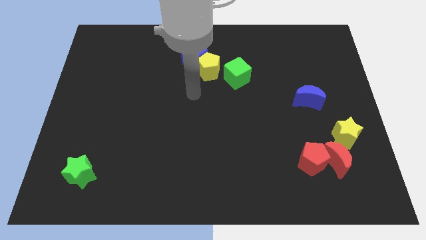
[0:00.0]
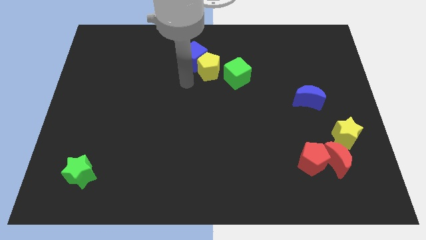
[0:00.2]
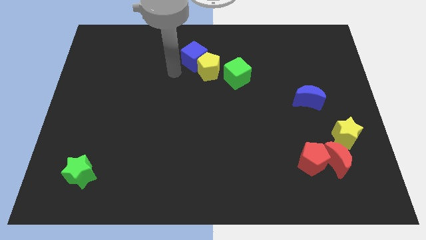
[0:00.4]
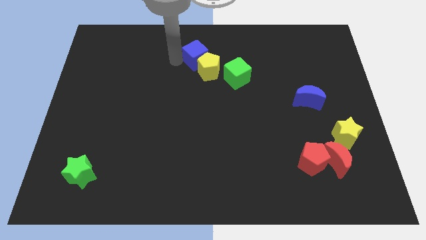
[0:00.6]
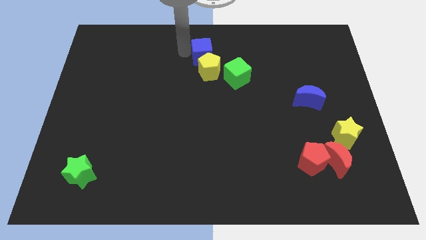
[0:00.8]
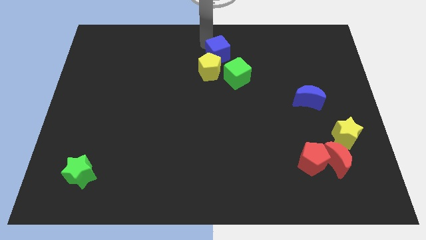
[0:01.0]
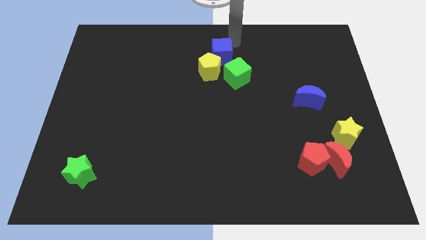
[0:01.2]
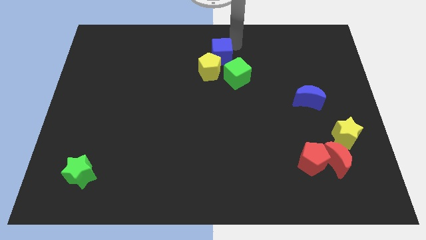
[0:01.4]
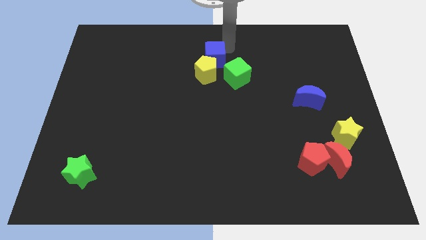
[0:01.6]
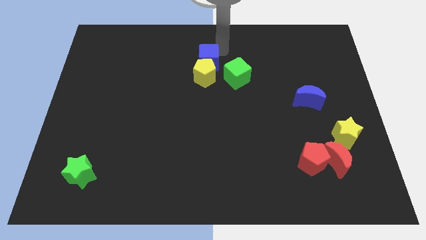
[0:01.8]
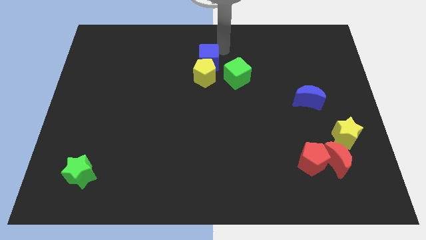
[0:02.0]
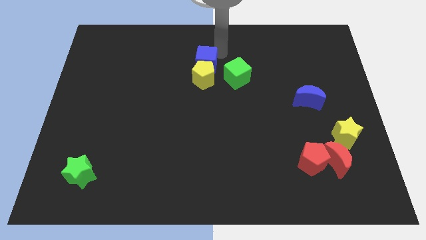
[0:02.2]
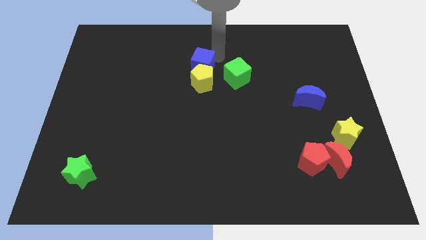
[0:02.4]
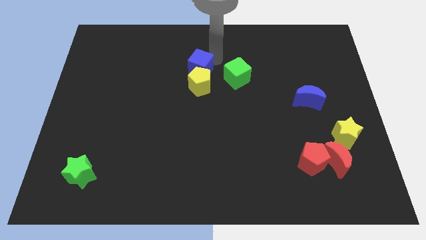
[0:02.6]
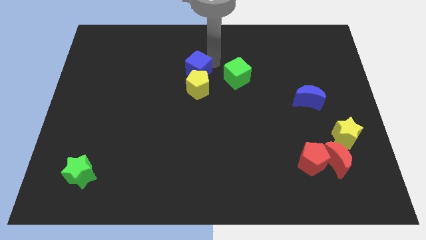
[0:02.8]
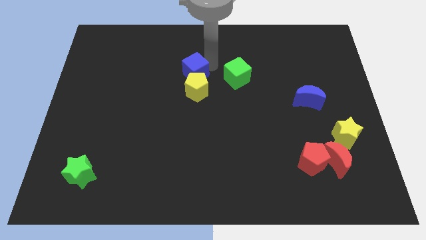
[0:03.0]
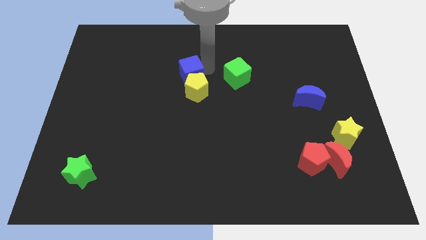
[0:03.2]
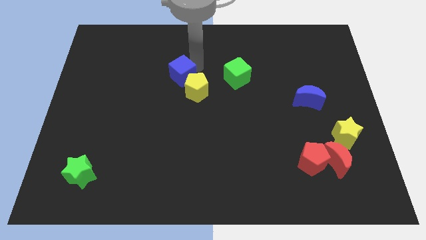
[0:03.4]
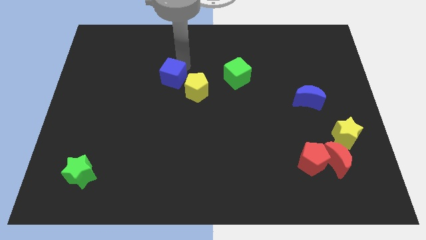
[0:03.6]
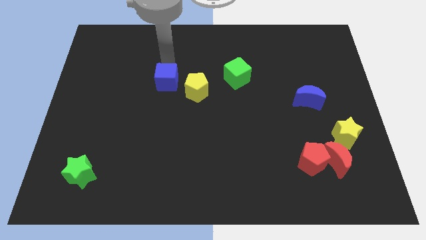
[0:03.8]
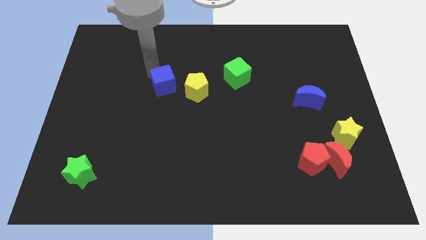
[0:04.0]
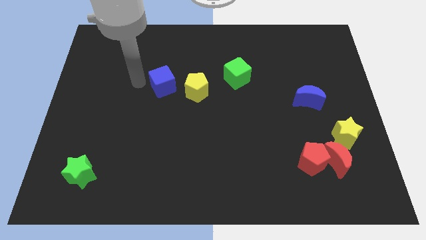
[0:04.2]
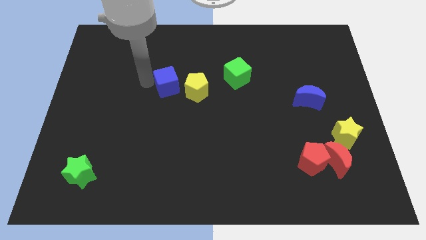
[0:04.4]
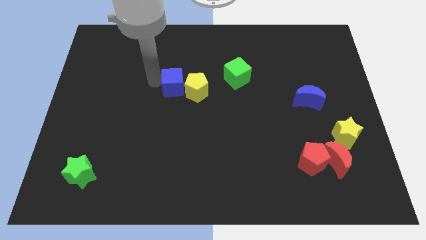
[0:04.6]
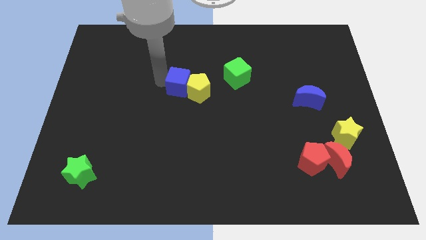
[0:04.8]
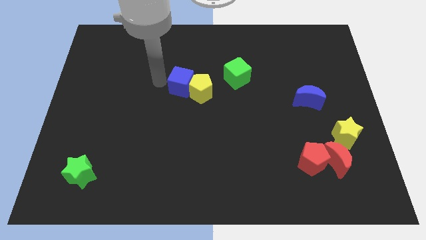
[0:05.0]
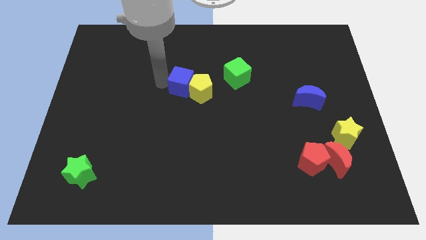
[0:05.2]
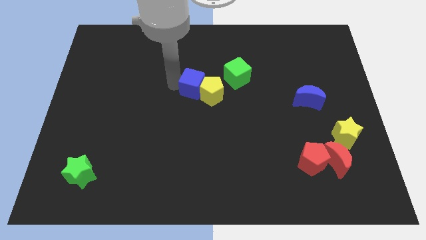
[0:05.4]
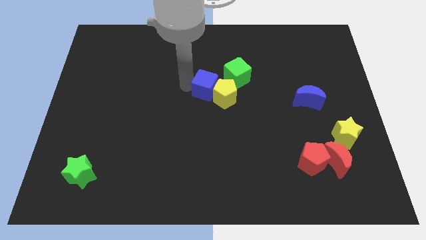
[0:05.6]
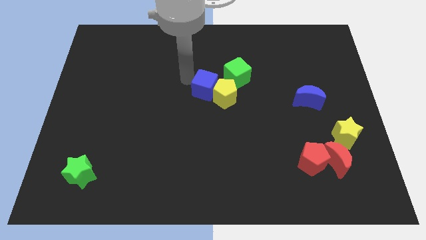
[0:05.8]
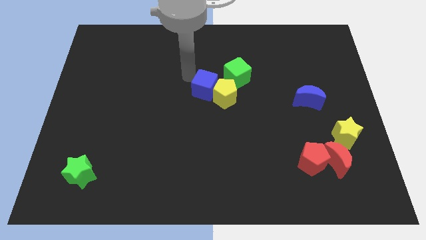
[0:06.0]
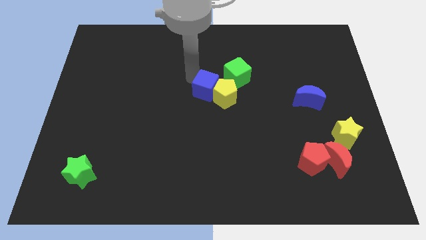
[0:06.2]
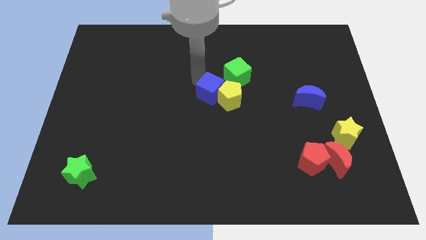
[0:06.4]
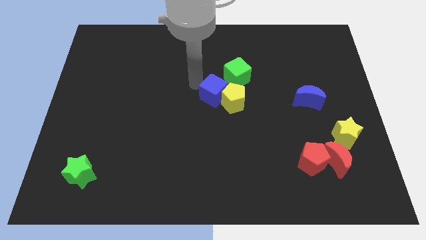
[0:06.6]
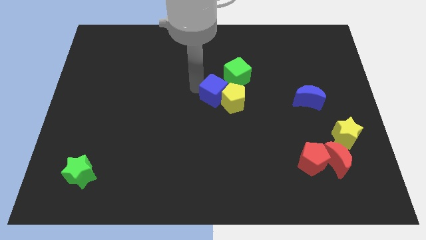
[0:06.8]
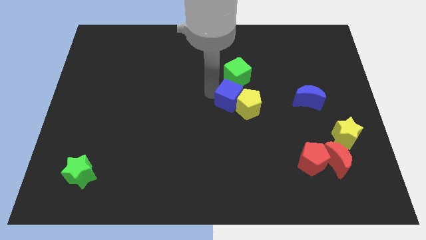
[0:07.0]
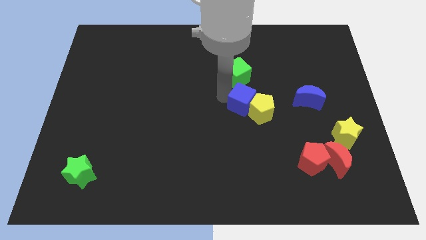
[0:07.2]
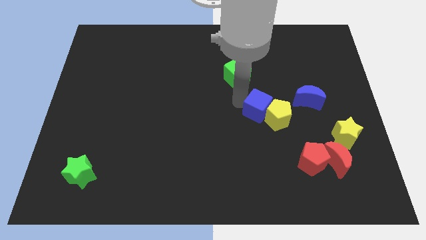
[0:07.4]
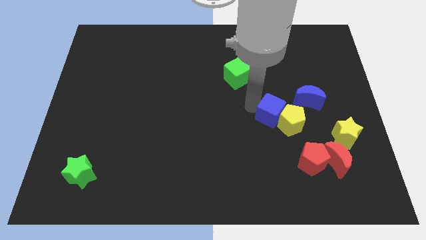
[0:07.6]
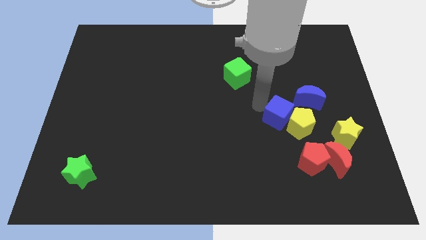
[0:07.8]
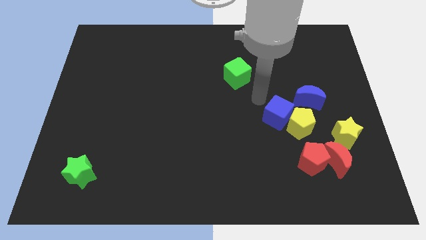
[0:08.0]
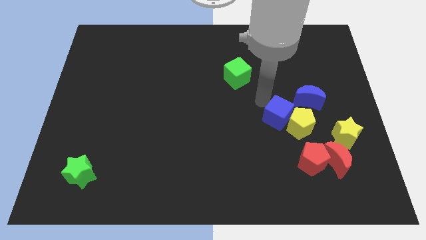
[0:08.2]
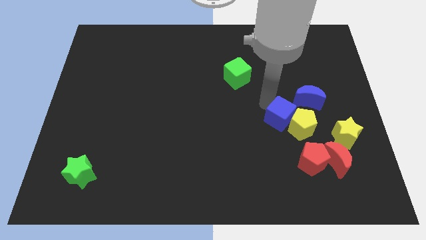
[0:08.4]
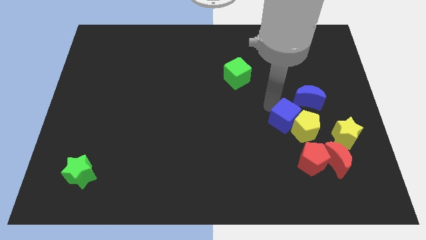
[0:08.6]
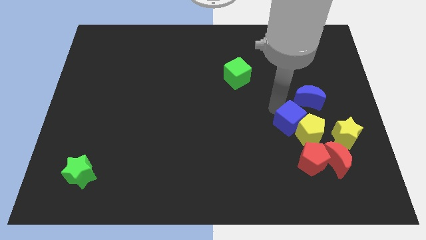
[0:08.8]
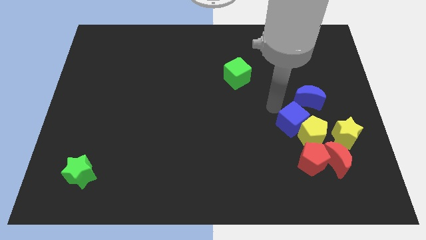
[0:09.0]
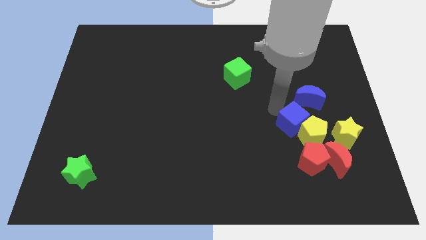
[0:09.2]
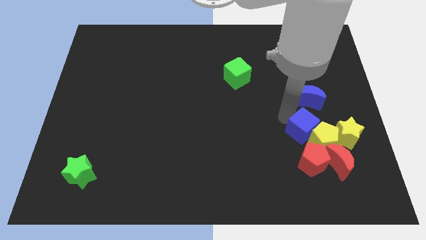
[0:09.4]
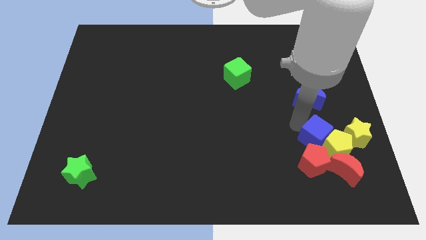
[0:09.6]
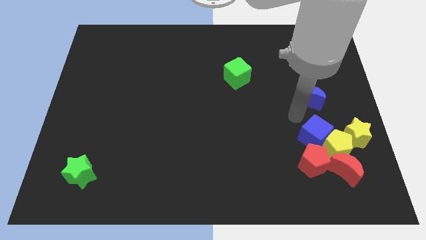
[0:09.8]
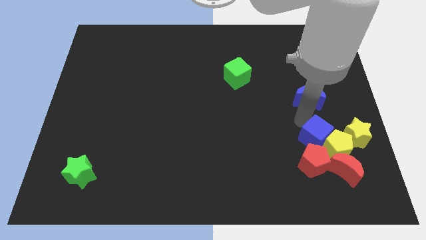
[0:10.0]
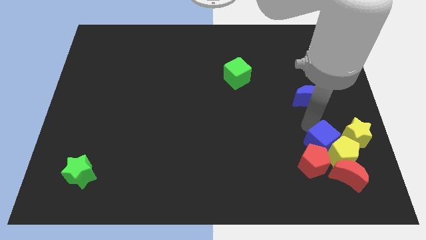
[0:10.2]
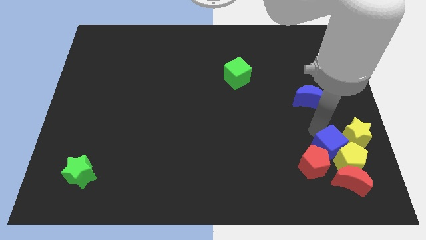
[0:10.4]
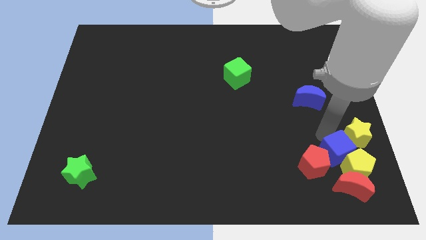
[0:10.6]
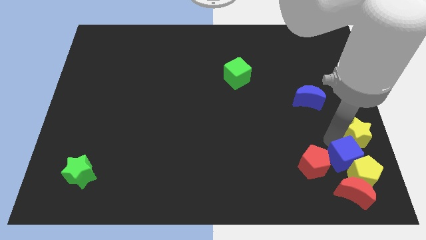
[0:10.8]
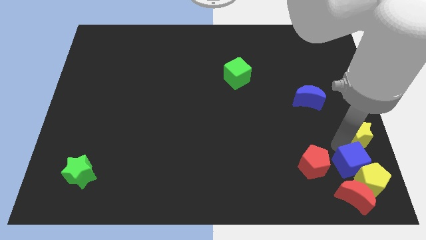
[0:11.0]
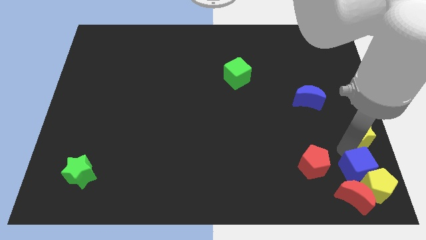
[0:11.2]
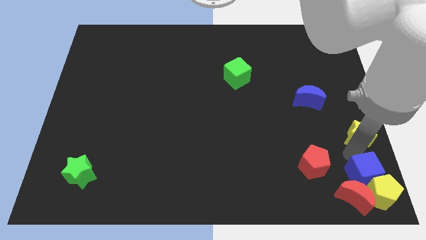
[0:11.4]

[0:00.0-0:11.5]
move the blue cube close to the red moon

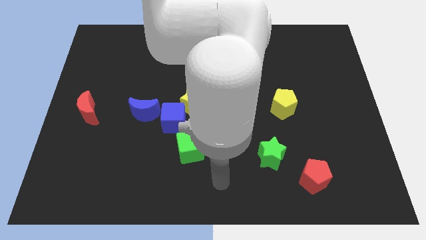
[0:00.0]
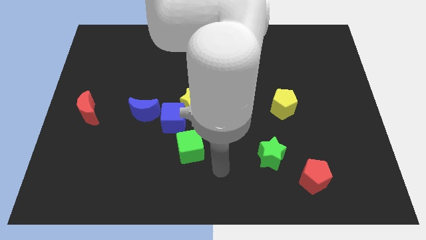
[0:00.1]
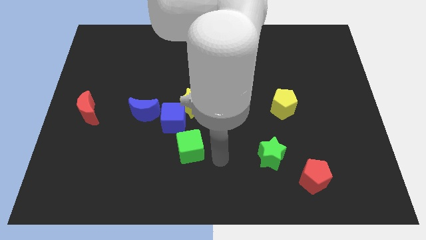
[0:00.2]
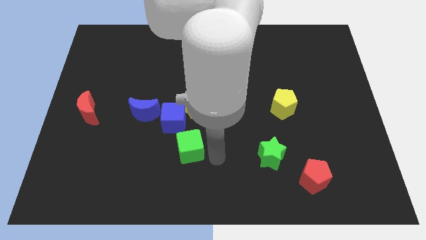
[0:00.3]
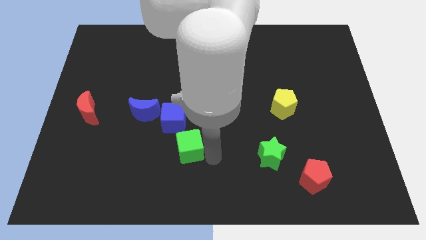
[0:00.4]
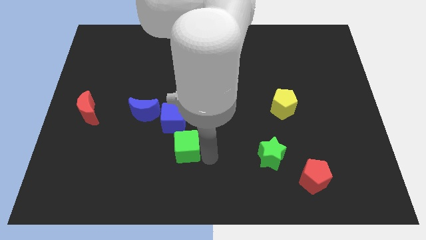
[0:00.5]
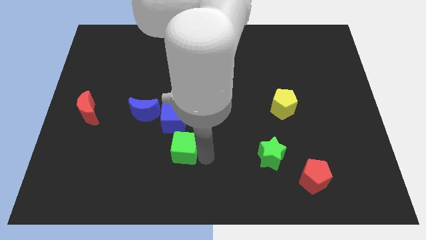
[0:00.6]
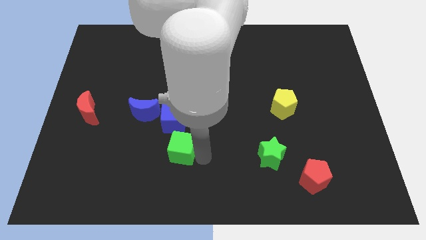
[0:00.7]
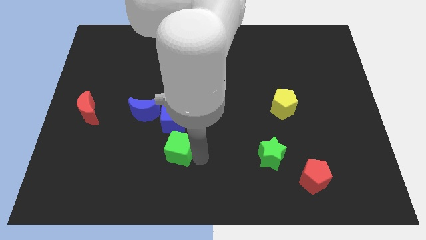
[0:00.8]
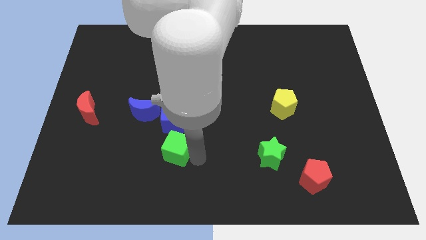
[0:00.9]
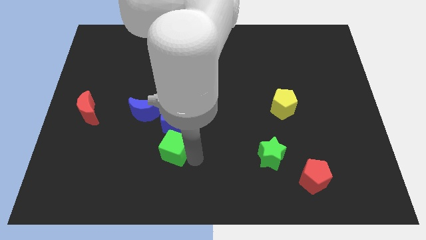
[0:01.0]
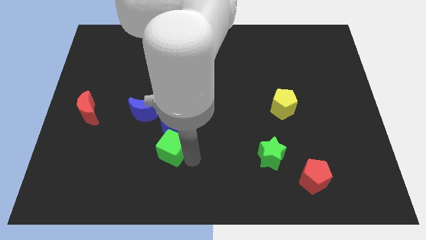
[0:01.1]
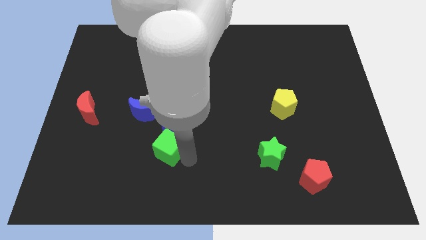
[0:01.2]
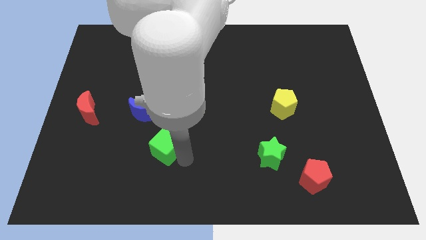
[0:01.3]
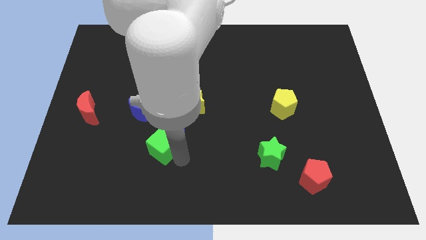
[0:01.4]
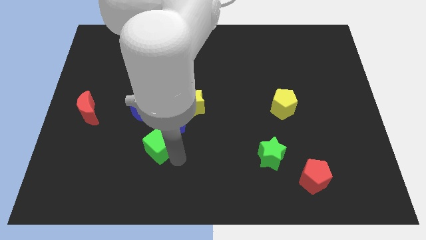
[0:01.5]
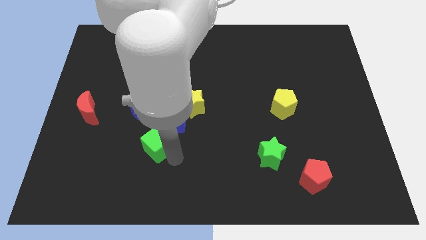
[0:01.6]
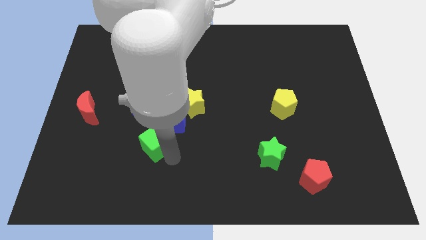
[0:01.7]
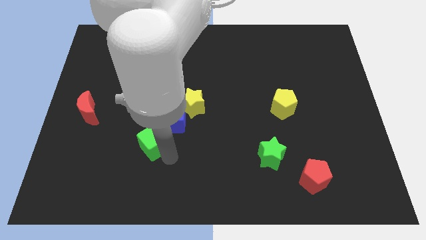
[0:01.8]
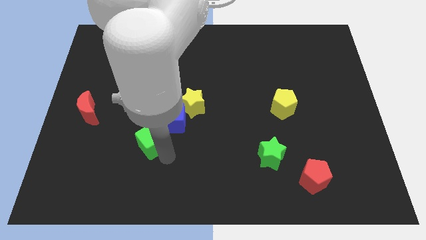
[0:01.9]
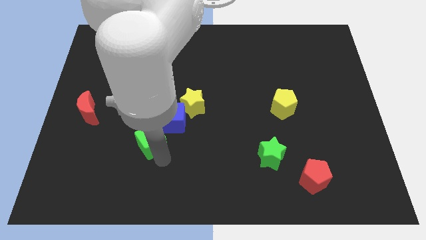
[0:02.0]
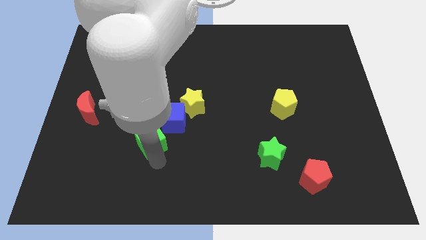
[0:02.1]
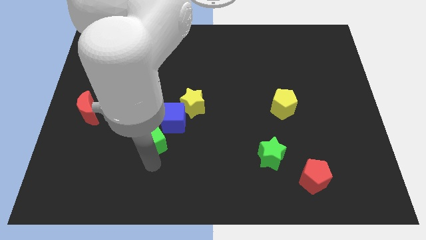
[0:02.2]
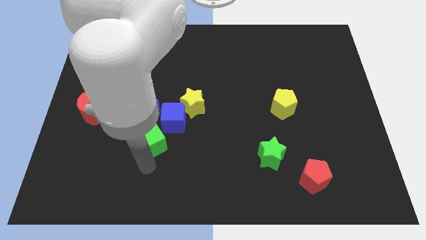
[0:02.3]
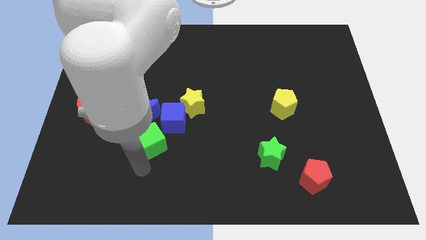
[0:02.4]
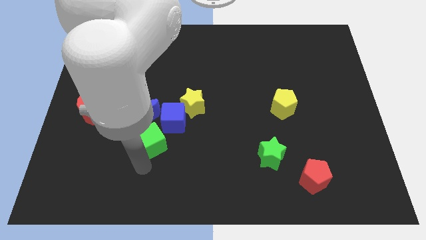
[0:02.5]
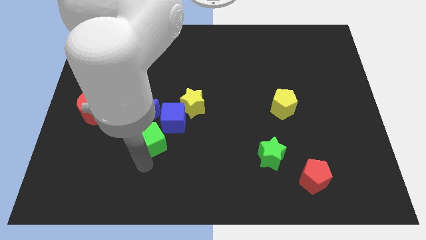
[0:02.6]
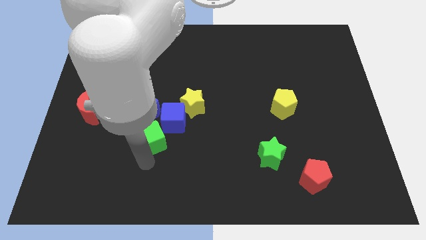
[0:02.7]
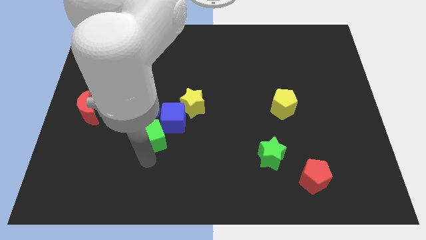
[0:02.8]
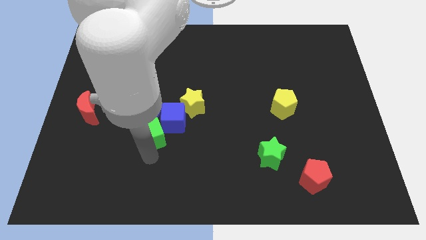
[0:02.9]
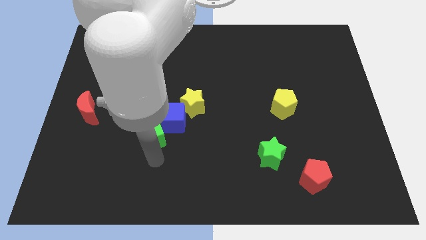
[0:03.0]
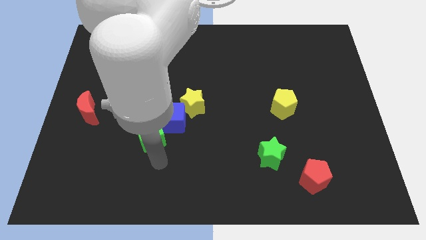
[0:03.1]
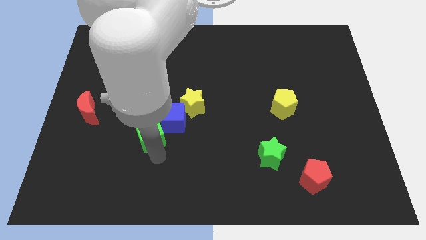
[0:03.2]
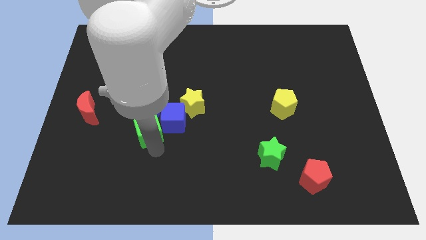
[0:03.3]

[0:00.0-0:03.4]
push the green cube next to the blue moon
